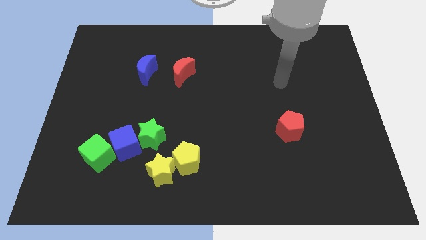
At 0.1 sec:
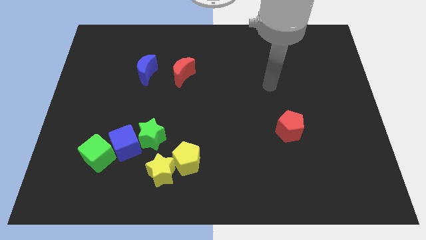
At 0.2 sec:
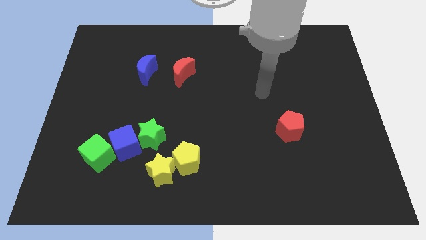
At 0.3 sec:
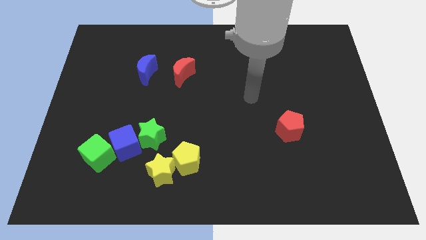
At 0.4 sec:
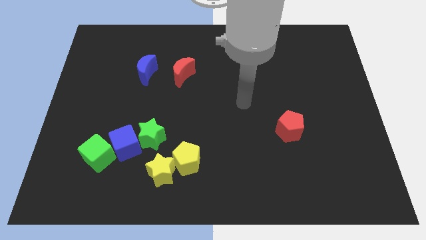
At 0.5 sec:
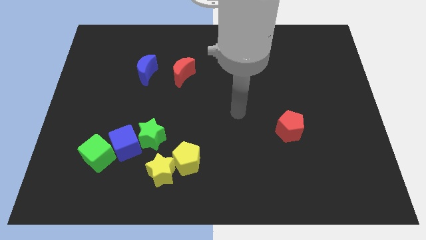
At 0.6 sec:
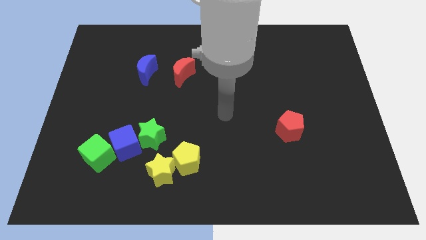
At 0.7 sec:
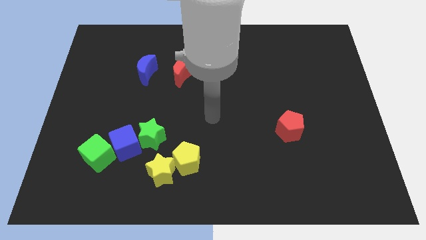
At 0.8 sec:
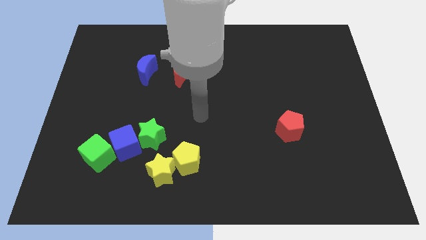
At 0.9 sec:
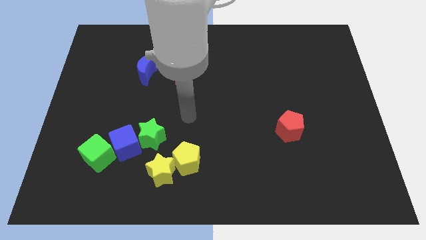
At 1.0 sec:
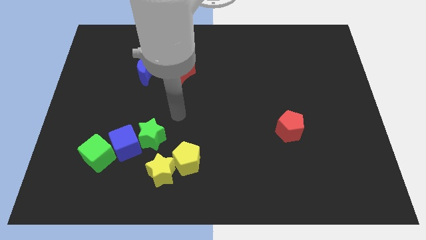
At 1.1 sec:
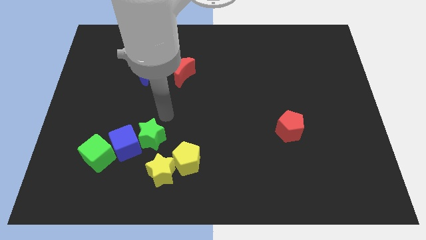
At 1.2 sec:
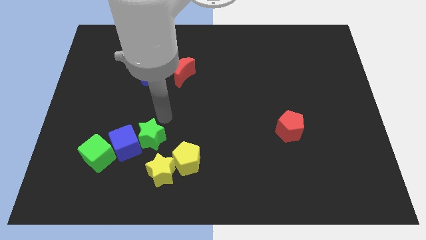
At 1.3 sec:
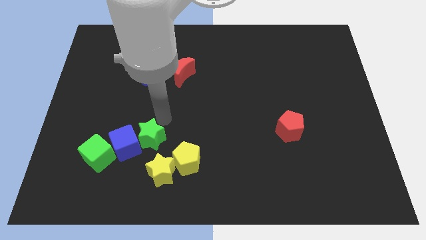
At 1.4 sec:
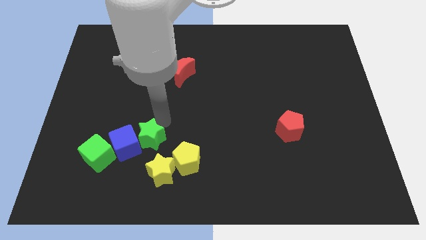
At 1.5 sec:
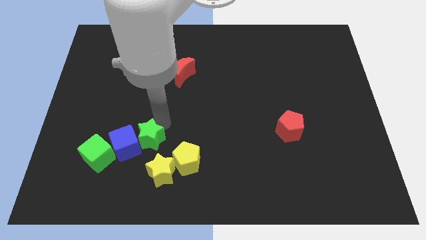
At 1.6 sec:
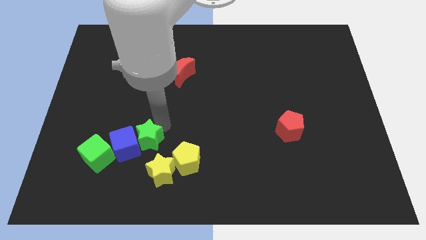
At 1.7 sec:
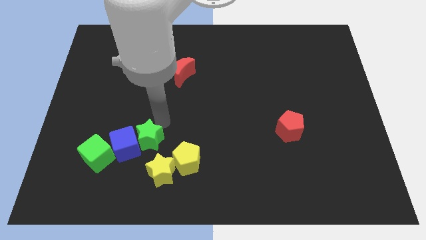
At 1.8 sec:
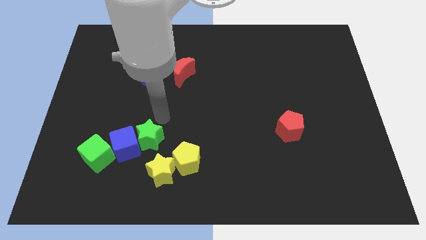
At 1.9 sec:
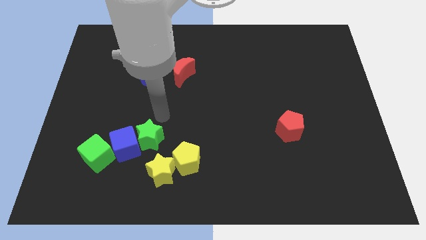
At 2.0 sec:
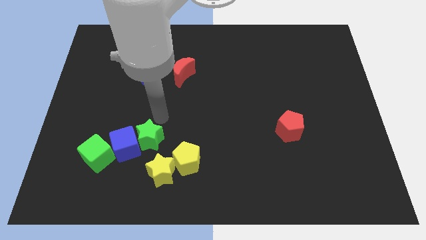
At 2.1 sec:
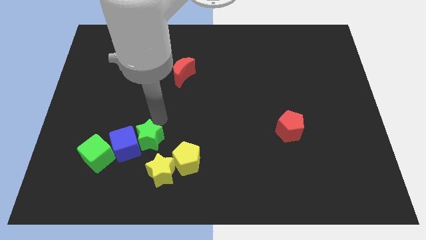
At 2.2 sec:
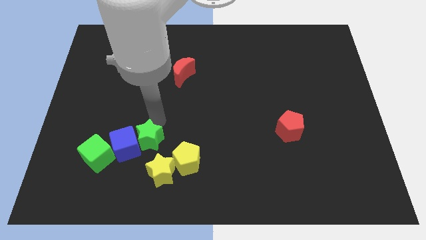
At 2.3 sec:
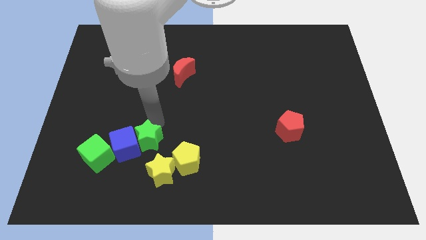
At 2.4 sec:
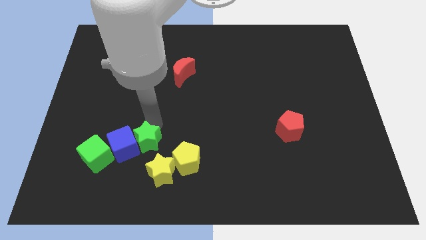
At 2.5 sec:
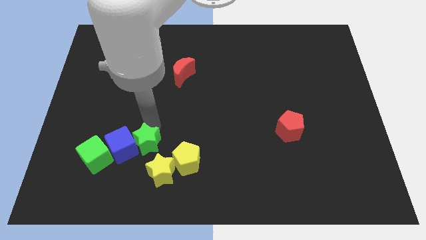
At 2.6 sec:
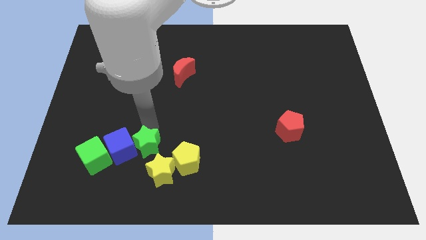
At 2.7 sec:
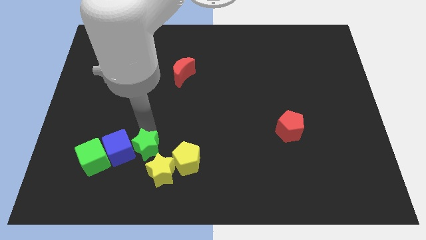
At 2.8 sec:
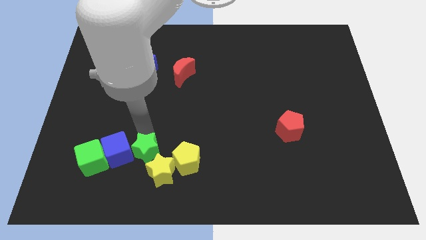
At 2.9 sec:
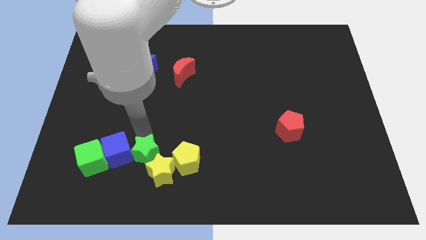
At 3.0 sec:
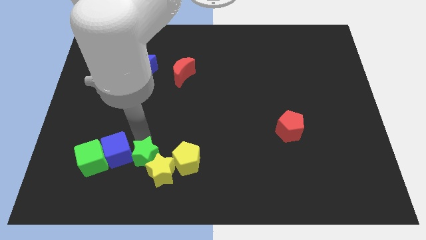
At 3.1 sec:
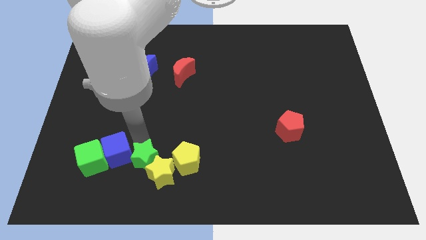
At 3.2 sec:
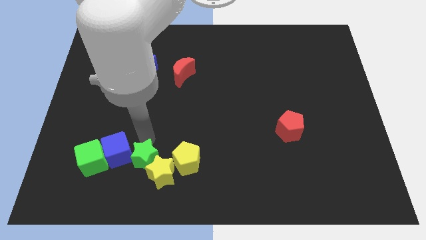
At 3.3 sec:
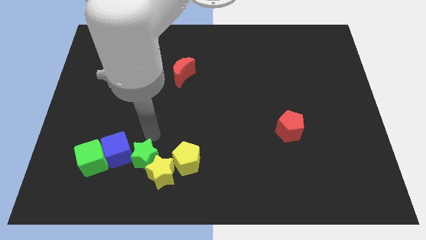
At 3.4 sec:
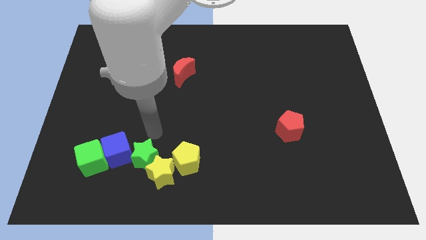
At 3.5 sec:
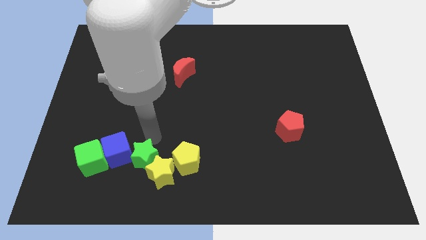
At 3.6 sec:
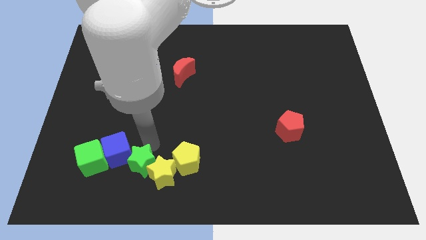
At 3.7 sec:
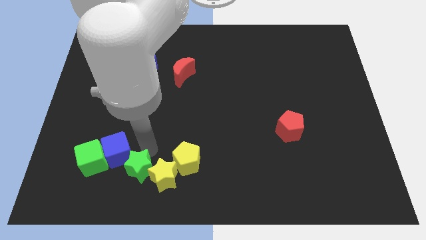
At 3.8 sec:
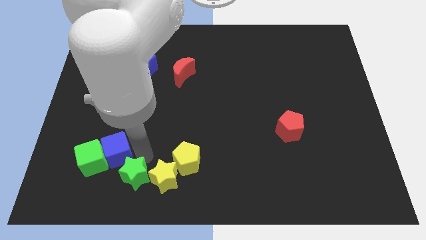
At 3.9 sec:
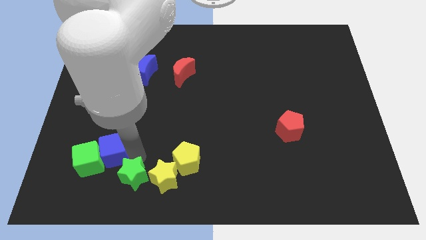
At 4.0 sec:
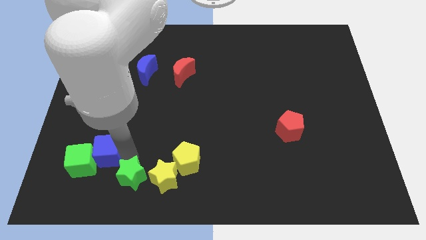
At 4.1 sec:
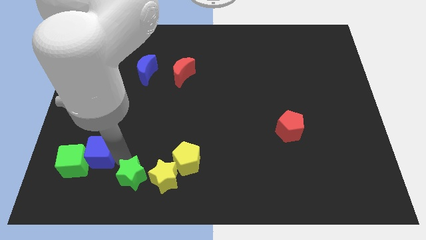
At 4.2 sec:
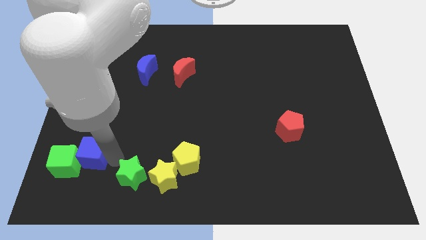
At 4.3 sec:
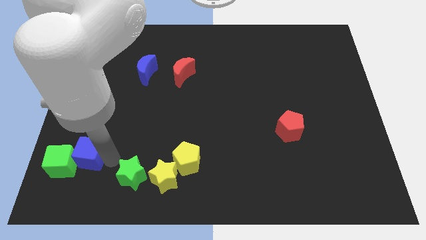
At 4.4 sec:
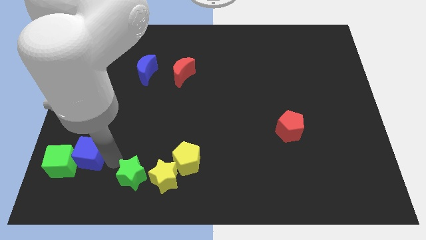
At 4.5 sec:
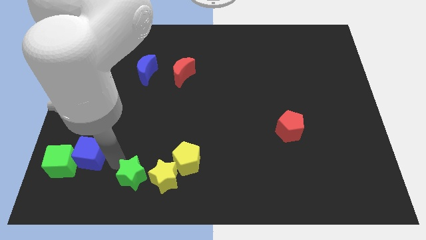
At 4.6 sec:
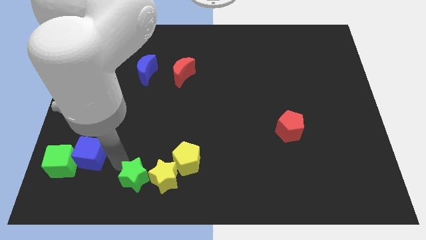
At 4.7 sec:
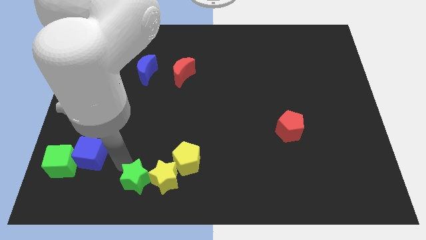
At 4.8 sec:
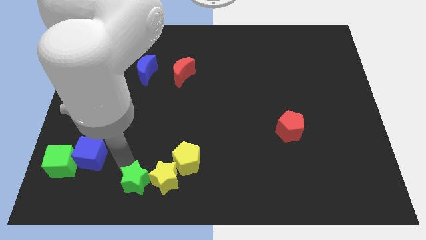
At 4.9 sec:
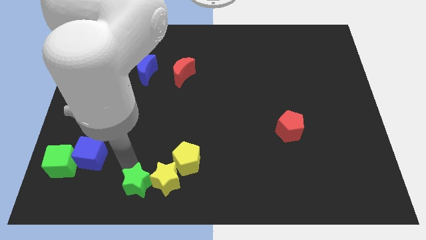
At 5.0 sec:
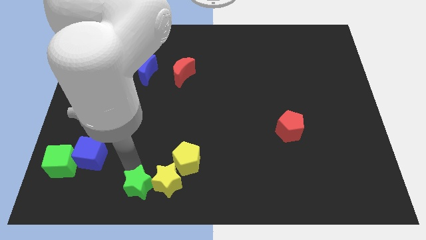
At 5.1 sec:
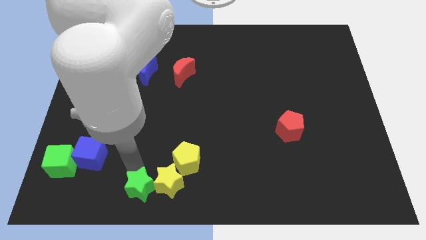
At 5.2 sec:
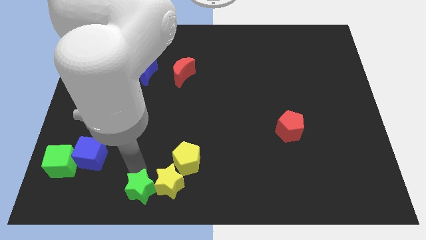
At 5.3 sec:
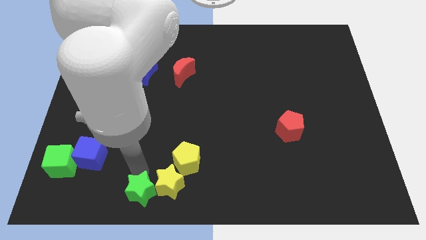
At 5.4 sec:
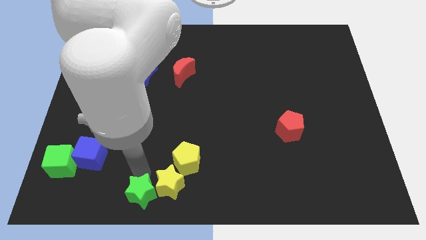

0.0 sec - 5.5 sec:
put the green star to the bottom side

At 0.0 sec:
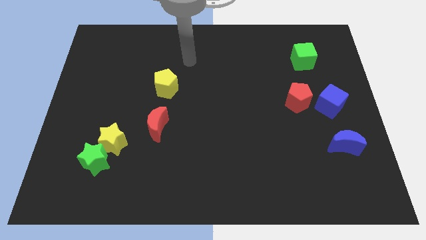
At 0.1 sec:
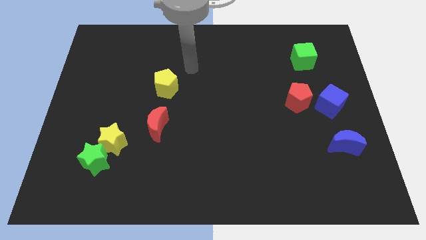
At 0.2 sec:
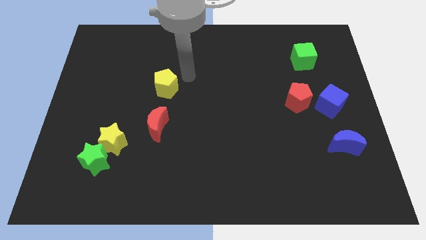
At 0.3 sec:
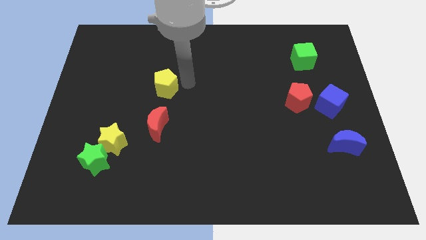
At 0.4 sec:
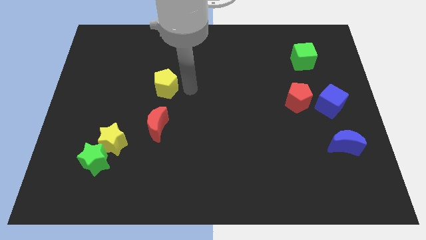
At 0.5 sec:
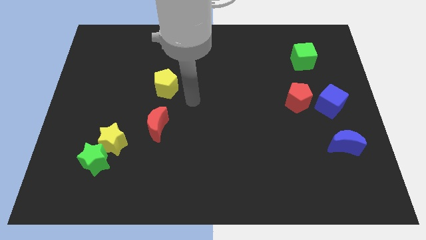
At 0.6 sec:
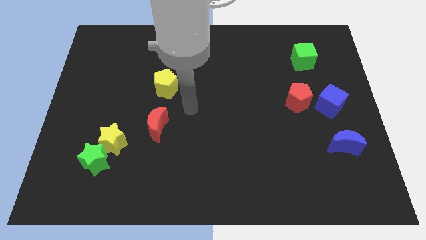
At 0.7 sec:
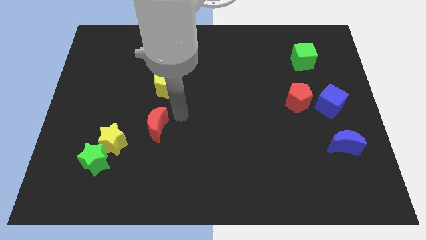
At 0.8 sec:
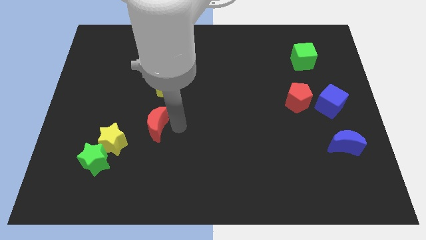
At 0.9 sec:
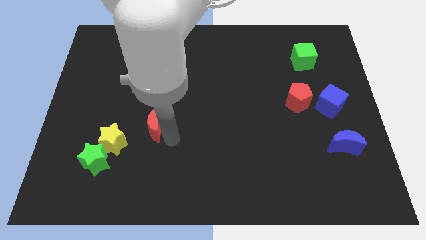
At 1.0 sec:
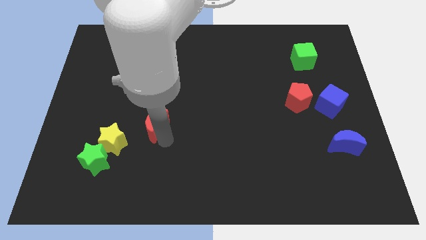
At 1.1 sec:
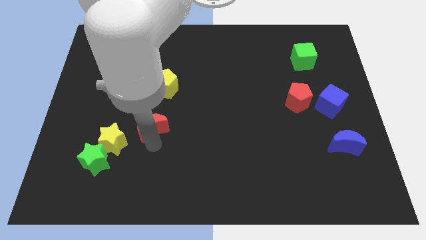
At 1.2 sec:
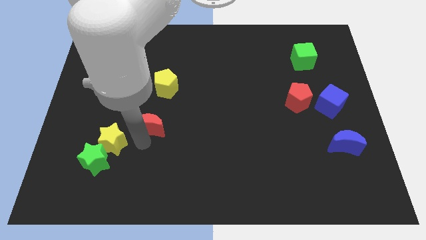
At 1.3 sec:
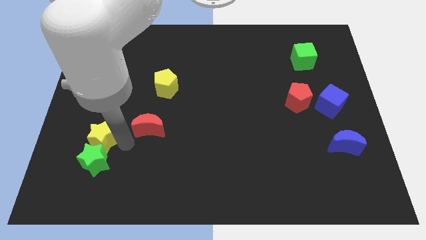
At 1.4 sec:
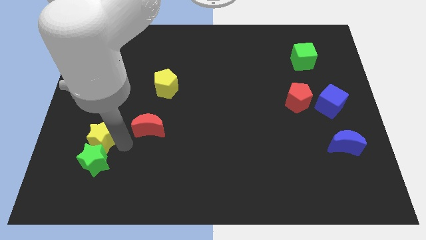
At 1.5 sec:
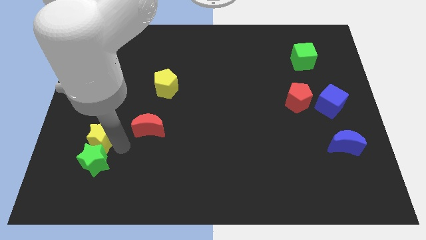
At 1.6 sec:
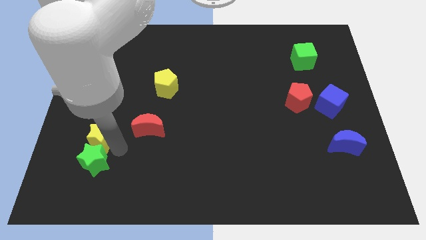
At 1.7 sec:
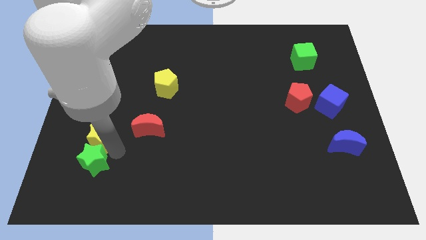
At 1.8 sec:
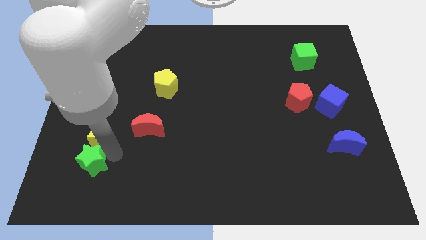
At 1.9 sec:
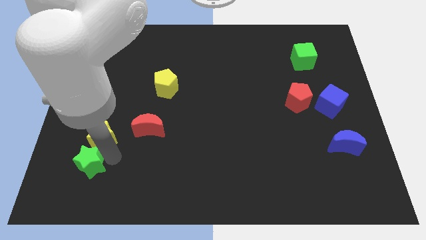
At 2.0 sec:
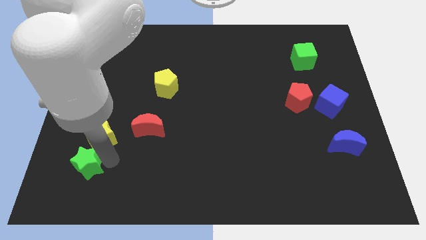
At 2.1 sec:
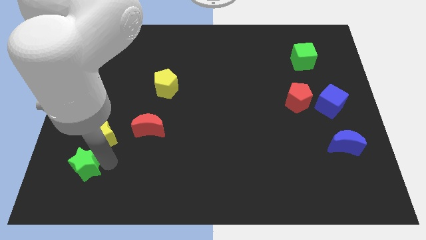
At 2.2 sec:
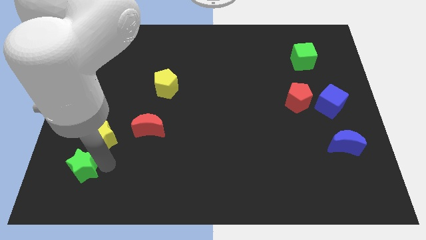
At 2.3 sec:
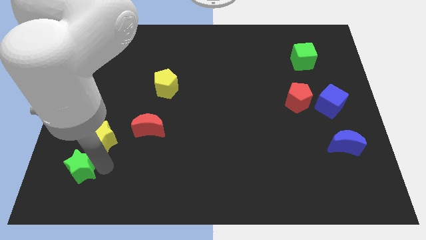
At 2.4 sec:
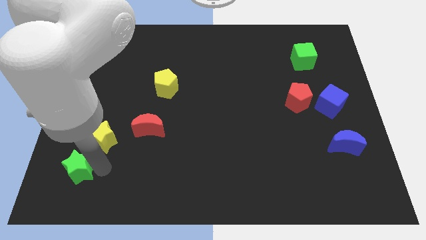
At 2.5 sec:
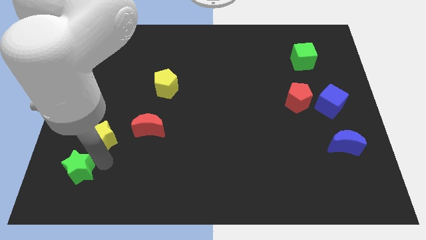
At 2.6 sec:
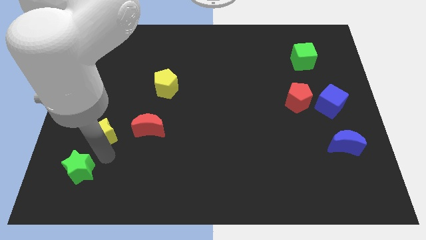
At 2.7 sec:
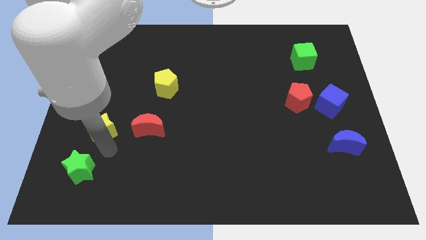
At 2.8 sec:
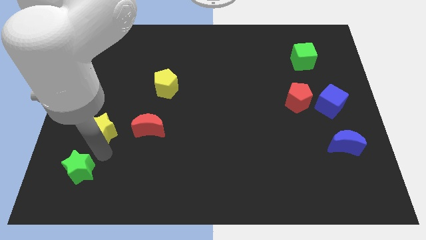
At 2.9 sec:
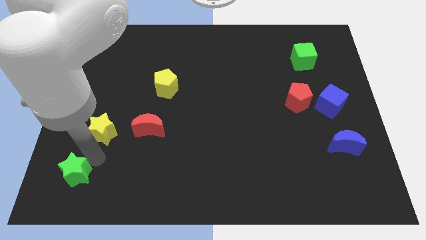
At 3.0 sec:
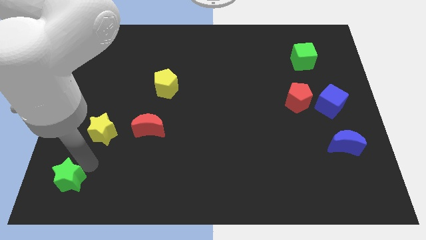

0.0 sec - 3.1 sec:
slide the green star to the bottom left of the board
